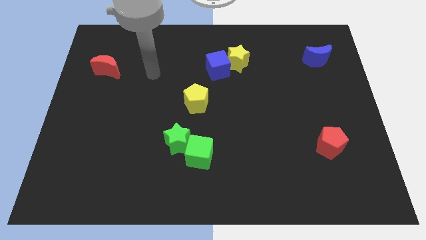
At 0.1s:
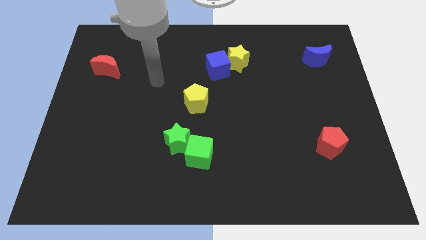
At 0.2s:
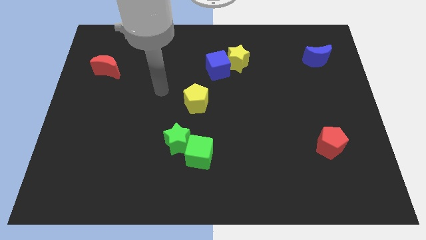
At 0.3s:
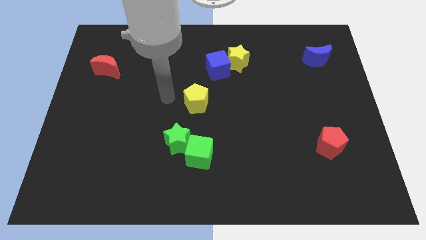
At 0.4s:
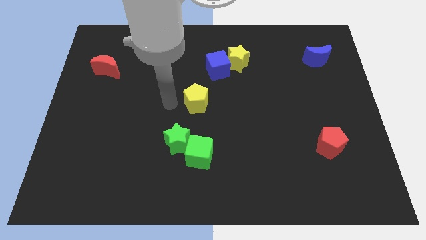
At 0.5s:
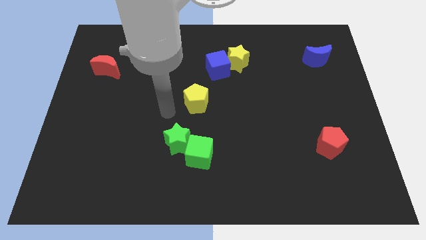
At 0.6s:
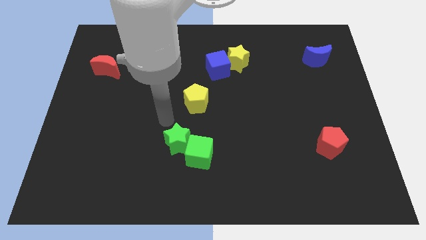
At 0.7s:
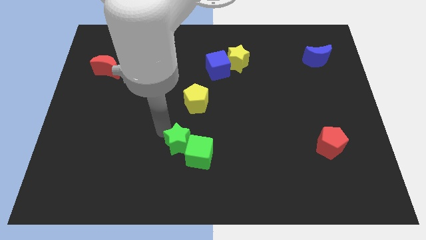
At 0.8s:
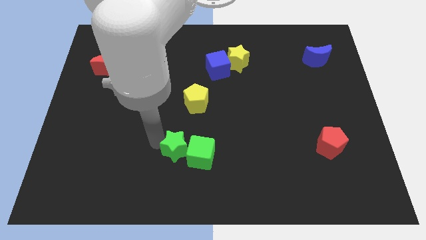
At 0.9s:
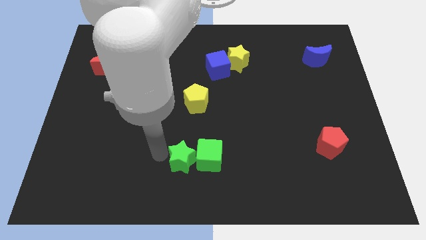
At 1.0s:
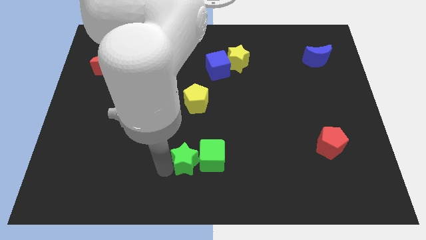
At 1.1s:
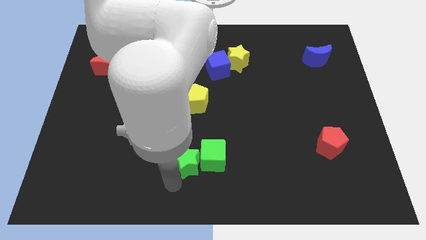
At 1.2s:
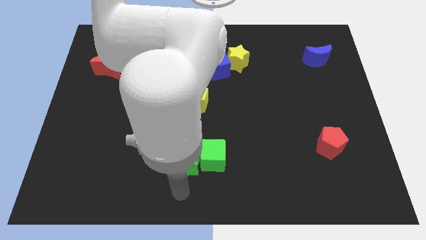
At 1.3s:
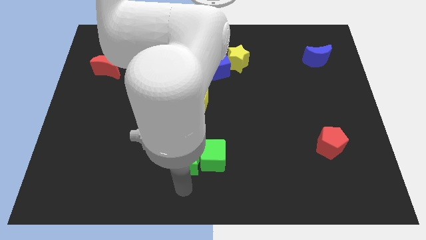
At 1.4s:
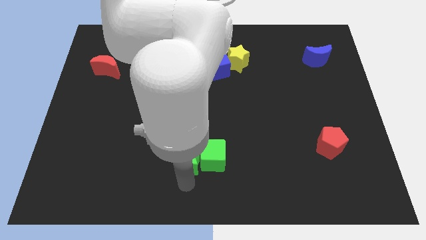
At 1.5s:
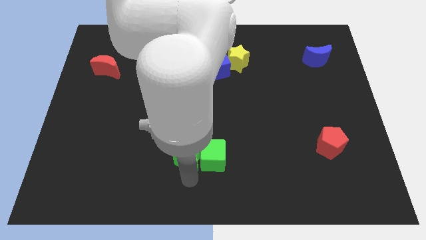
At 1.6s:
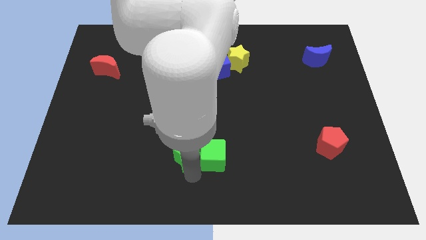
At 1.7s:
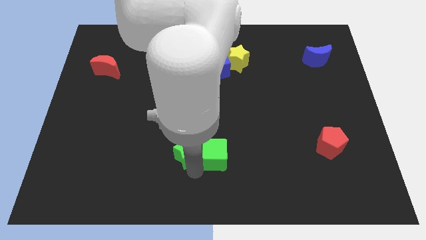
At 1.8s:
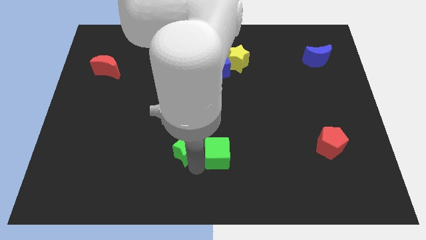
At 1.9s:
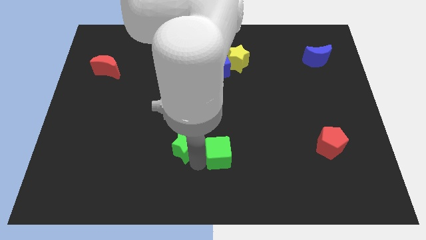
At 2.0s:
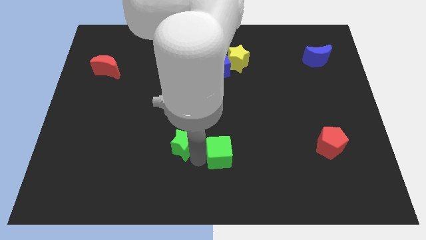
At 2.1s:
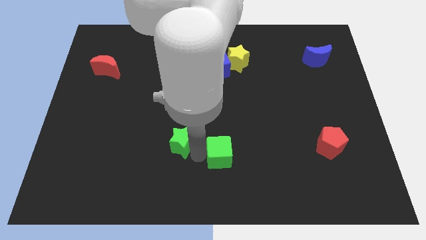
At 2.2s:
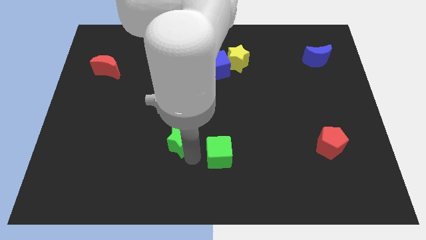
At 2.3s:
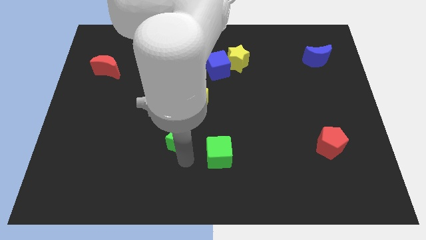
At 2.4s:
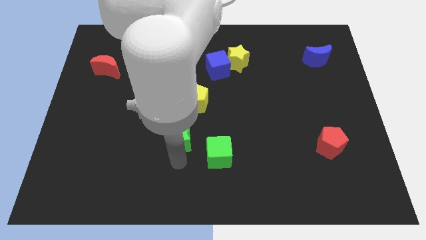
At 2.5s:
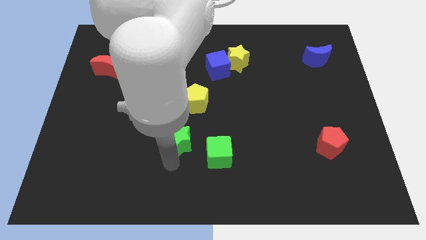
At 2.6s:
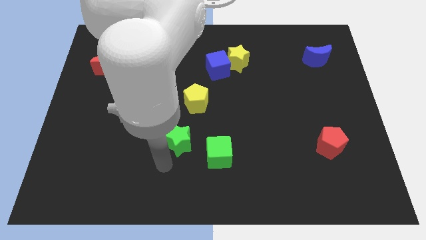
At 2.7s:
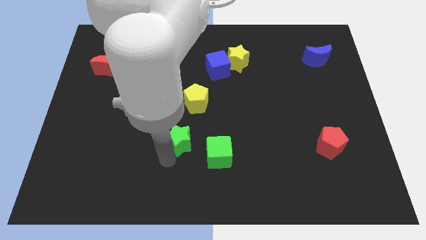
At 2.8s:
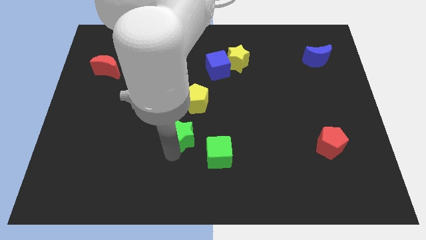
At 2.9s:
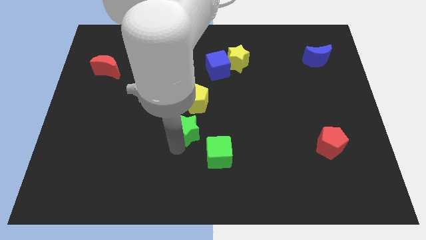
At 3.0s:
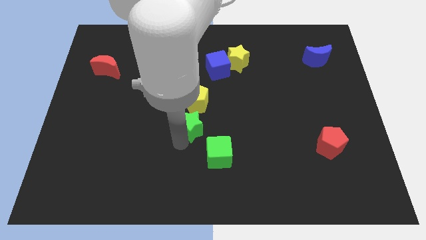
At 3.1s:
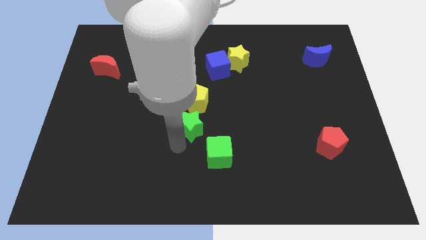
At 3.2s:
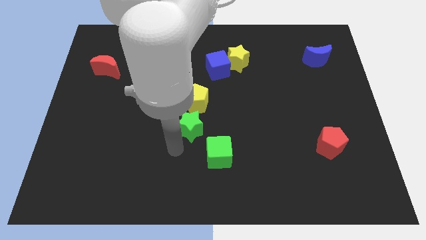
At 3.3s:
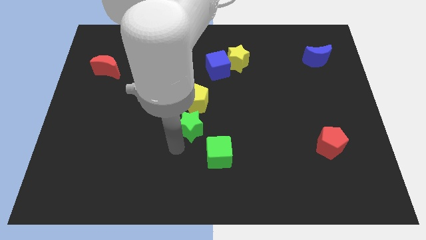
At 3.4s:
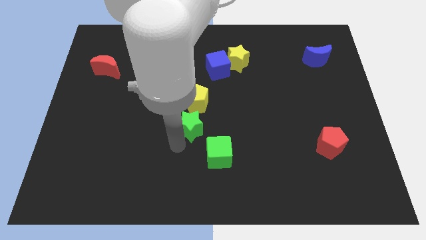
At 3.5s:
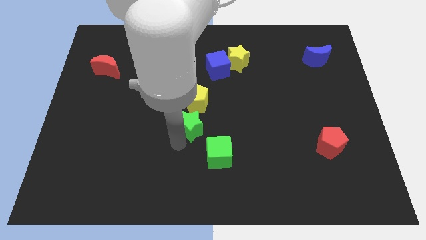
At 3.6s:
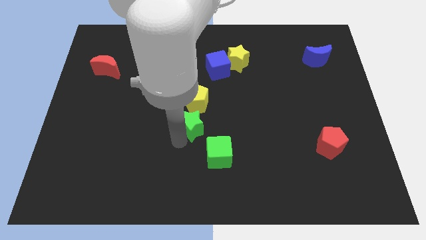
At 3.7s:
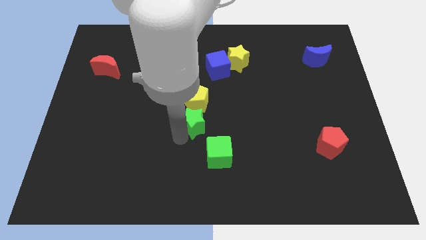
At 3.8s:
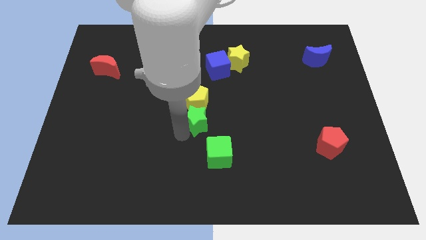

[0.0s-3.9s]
slightly move the green star diagonally upwards and to the right

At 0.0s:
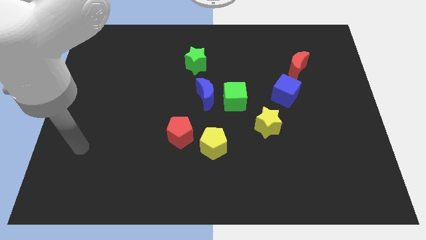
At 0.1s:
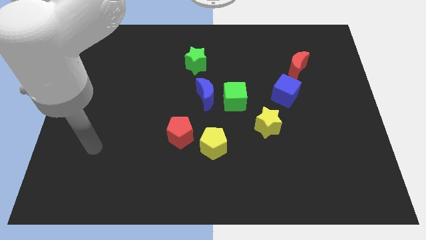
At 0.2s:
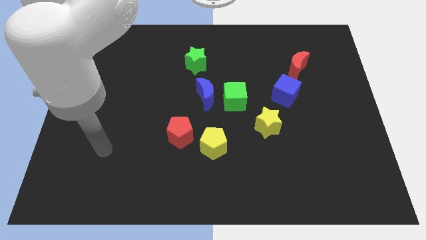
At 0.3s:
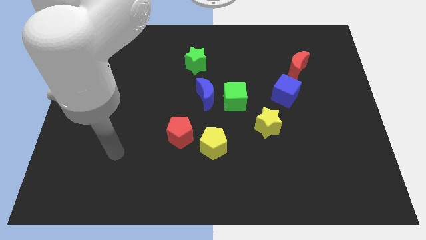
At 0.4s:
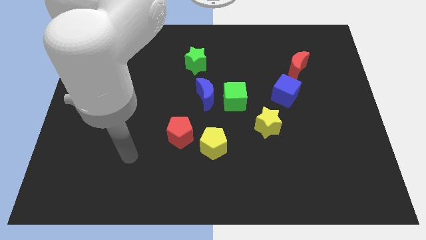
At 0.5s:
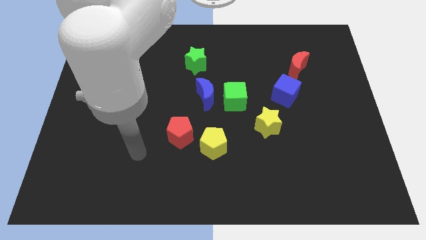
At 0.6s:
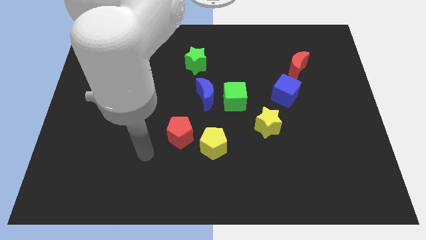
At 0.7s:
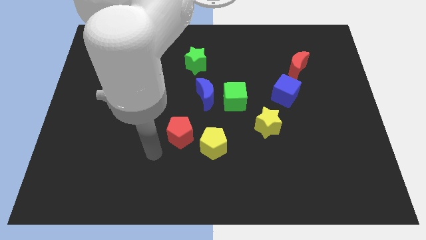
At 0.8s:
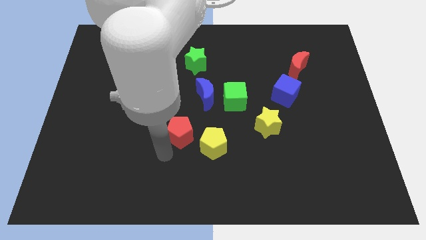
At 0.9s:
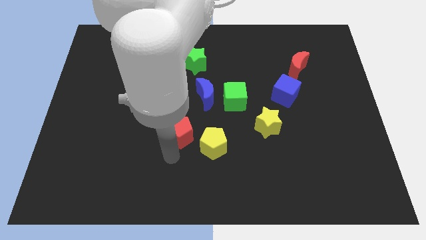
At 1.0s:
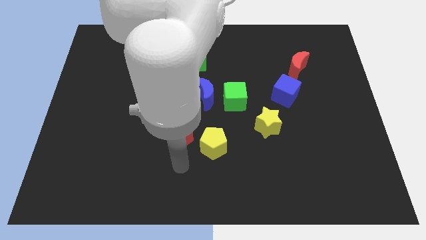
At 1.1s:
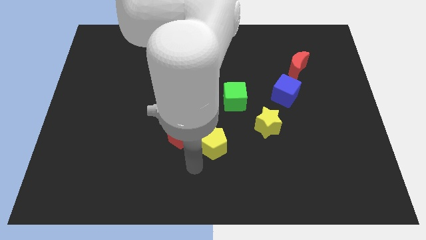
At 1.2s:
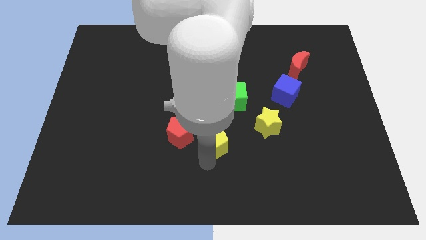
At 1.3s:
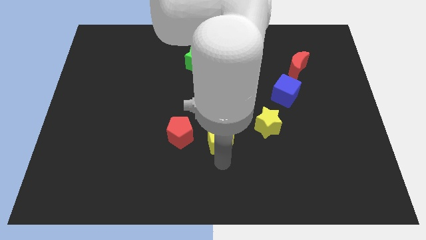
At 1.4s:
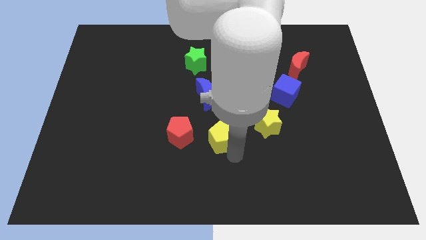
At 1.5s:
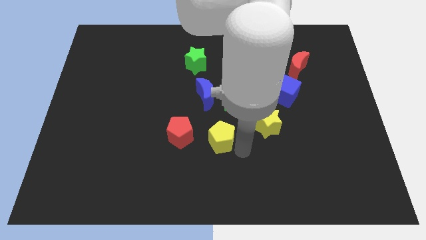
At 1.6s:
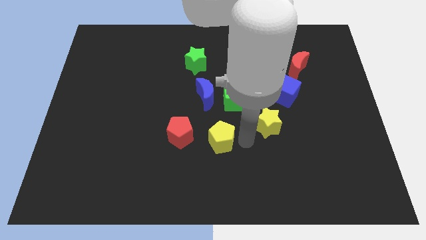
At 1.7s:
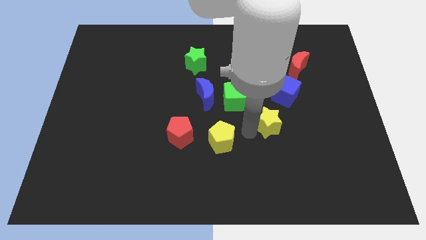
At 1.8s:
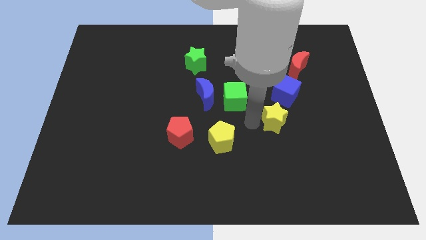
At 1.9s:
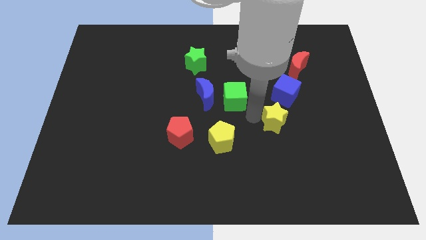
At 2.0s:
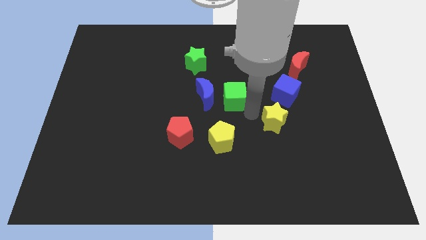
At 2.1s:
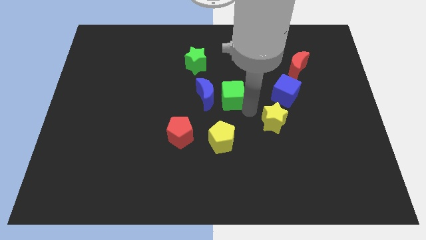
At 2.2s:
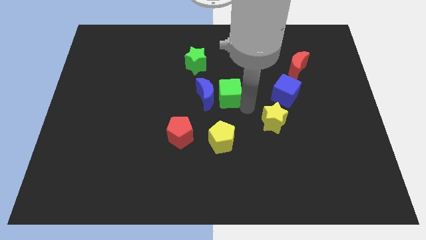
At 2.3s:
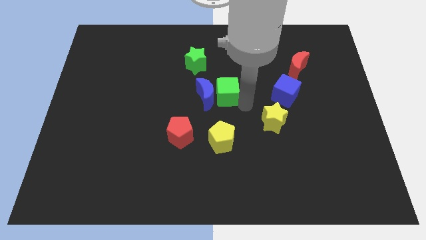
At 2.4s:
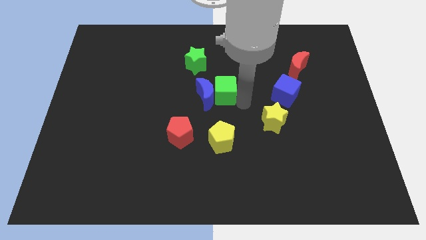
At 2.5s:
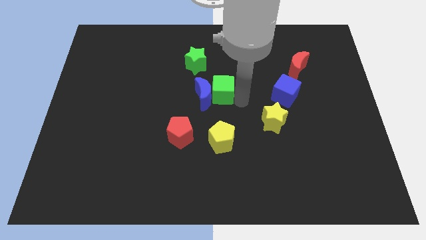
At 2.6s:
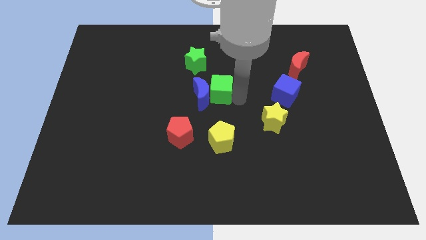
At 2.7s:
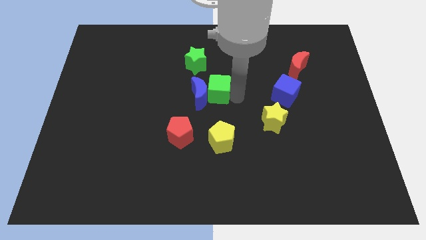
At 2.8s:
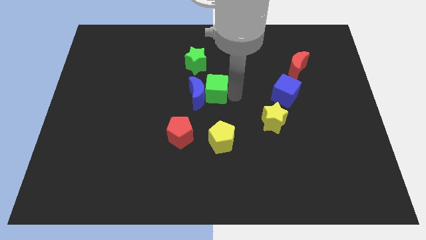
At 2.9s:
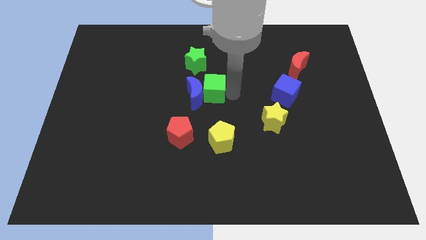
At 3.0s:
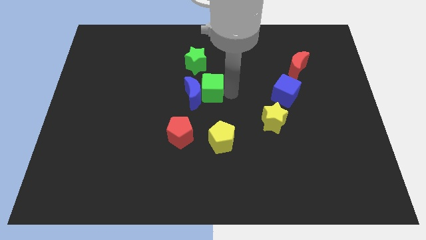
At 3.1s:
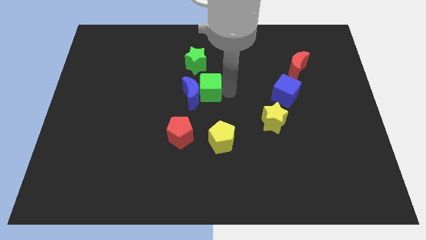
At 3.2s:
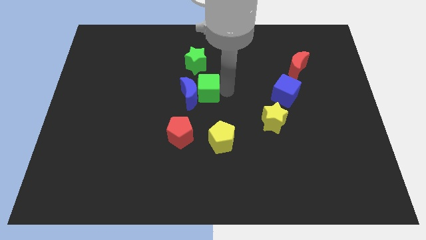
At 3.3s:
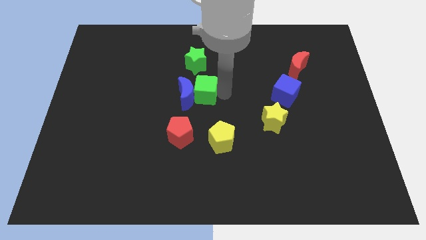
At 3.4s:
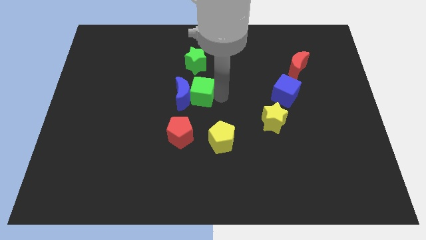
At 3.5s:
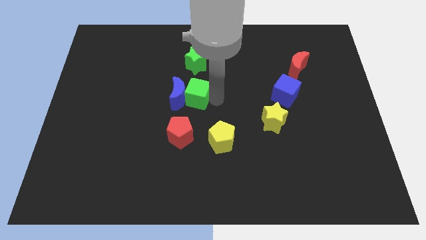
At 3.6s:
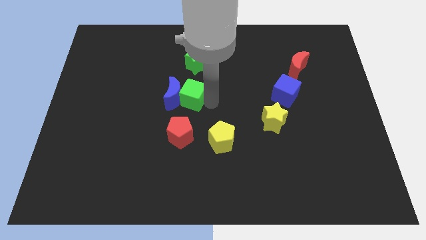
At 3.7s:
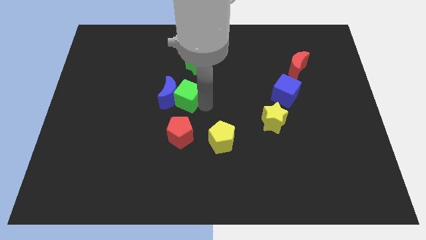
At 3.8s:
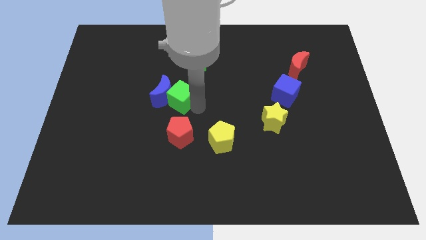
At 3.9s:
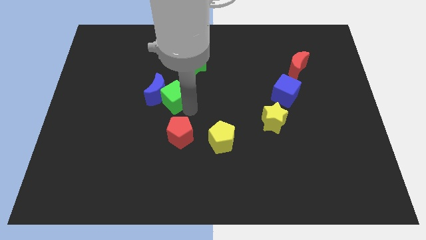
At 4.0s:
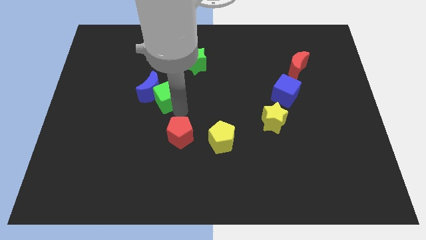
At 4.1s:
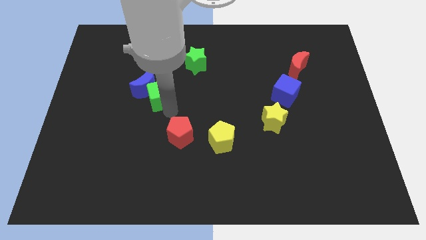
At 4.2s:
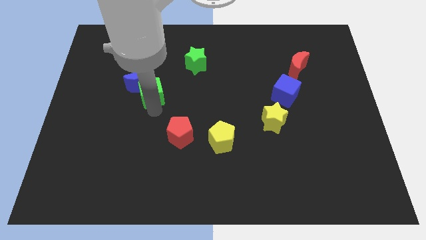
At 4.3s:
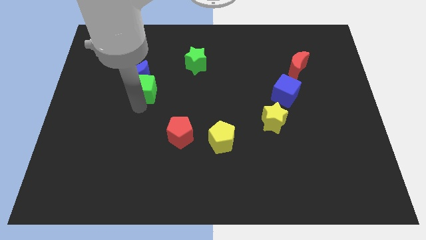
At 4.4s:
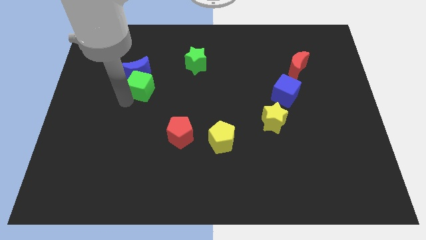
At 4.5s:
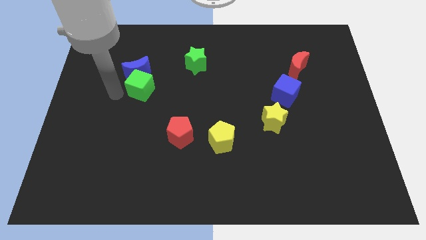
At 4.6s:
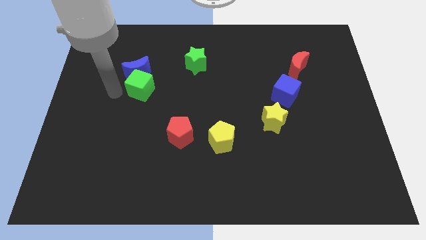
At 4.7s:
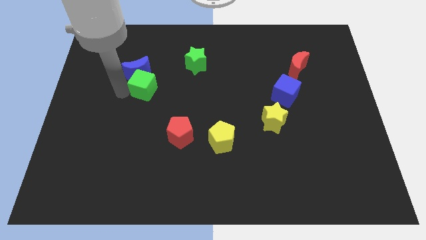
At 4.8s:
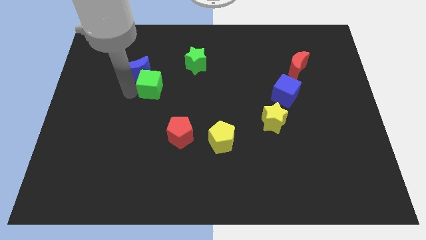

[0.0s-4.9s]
move the green cube somewhat upwards and left
